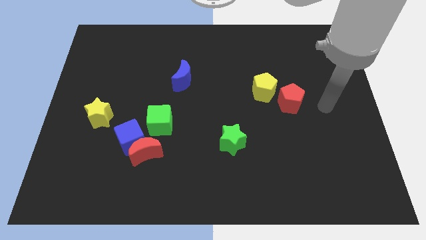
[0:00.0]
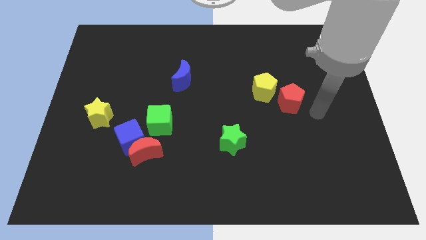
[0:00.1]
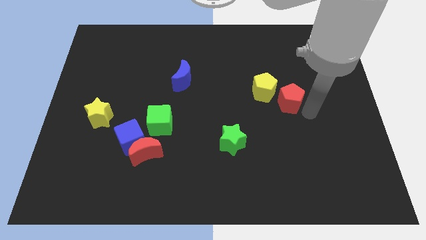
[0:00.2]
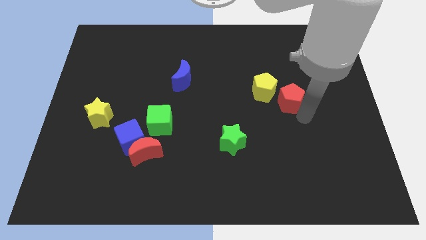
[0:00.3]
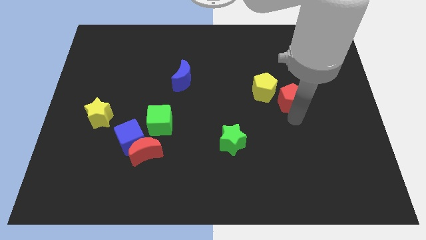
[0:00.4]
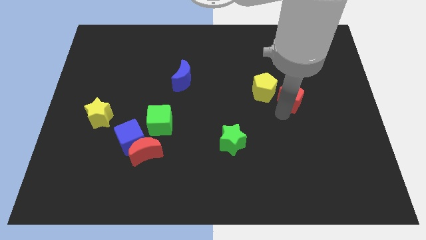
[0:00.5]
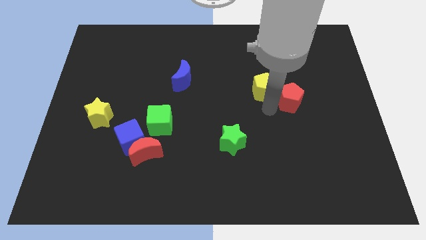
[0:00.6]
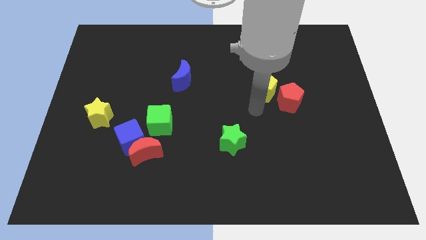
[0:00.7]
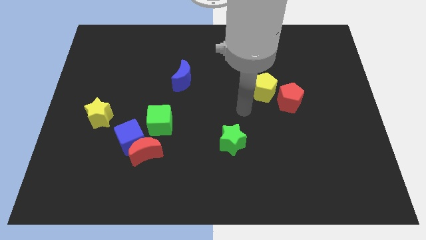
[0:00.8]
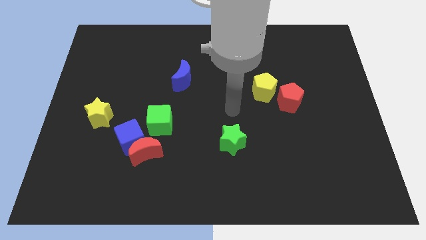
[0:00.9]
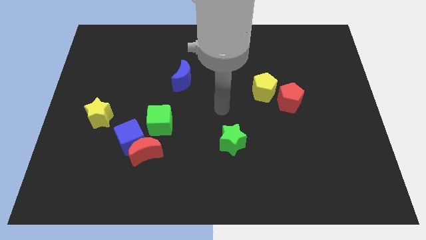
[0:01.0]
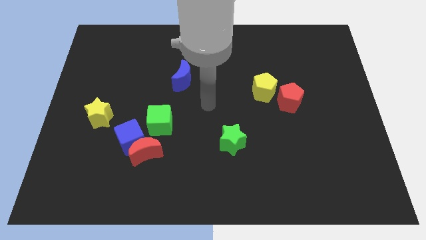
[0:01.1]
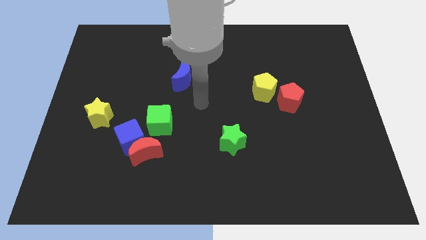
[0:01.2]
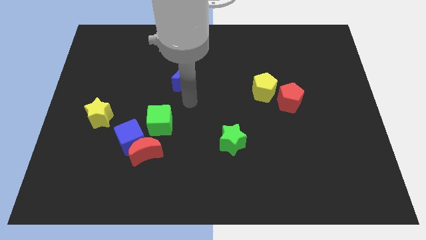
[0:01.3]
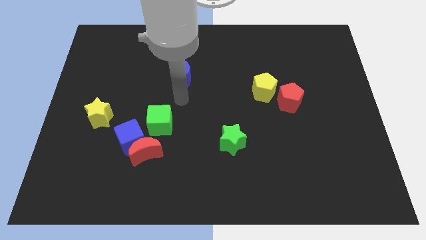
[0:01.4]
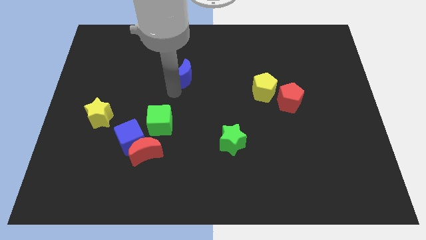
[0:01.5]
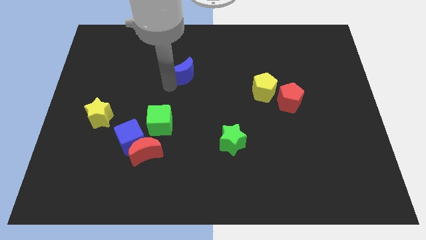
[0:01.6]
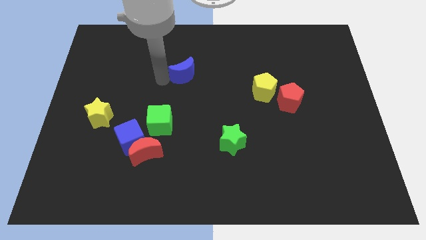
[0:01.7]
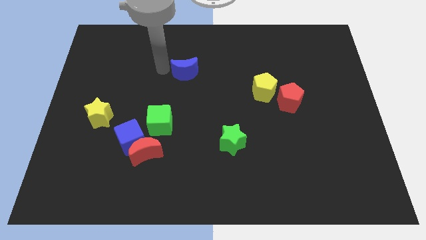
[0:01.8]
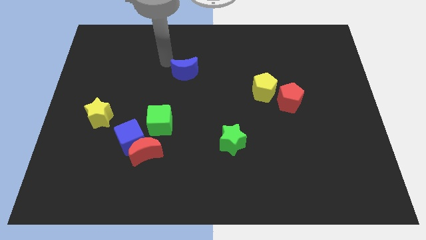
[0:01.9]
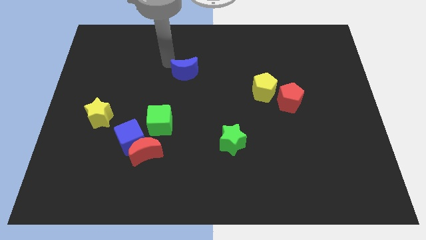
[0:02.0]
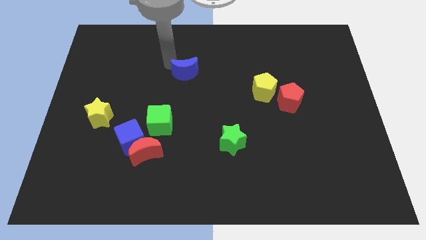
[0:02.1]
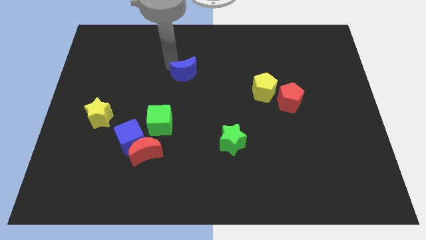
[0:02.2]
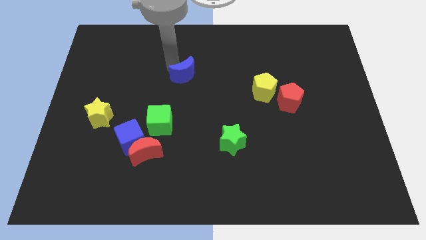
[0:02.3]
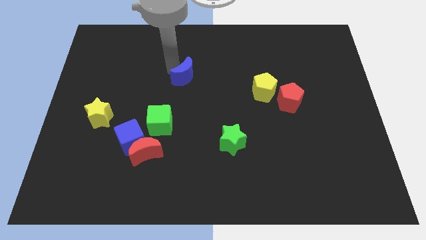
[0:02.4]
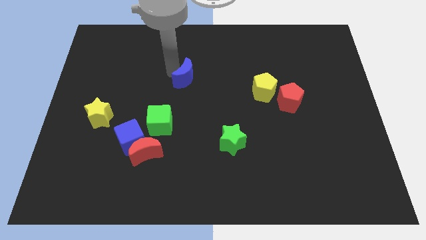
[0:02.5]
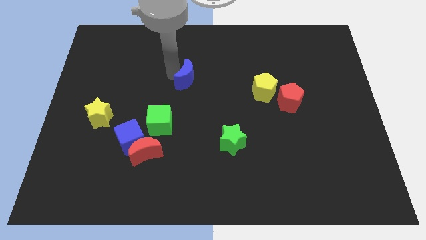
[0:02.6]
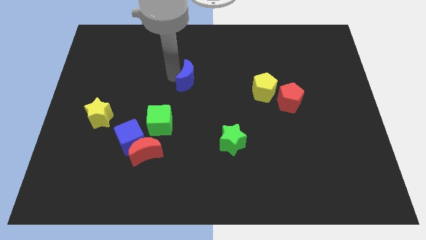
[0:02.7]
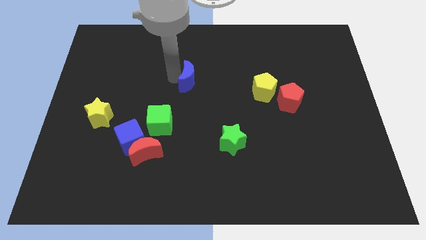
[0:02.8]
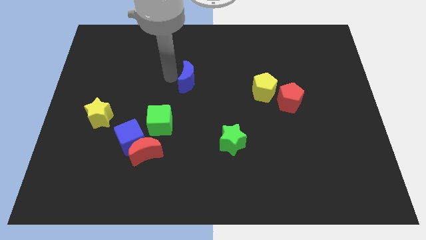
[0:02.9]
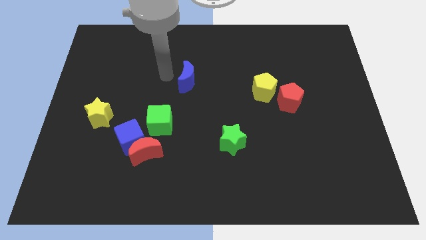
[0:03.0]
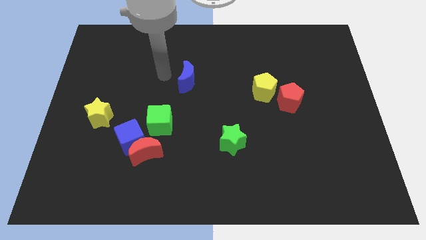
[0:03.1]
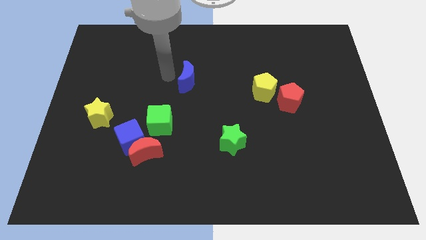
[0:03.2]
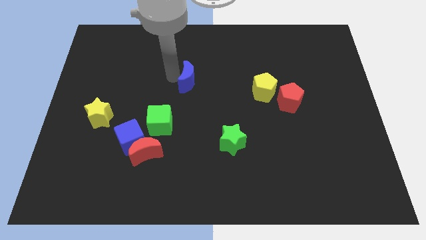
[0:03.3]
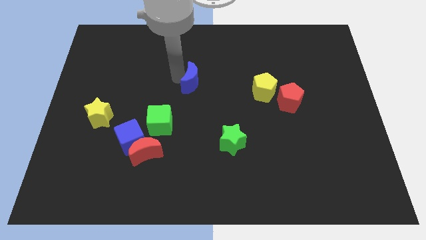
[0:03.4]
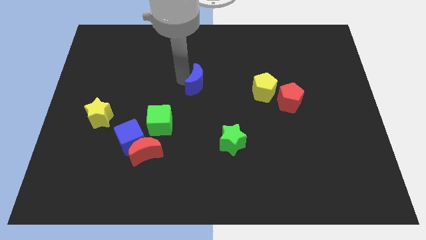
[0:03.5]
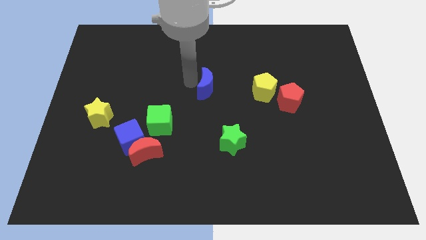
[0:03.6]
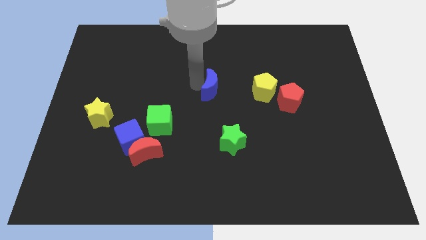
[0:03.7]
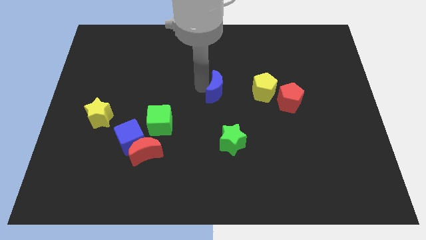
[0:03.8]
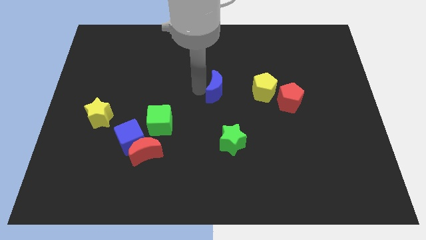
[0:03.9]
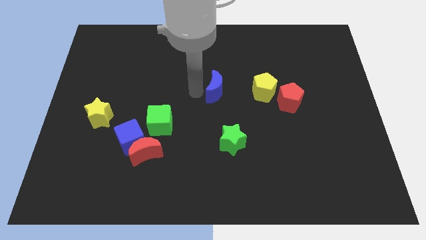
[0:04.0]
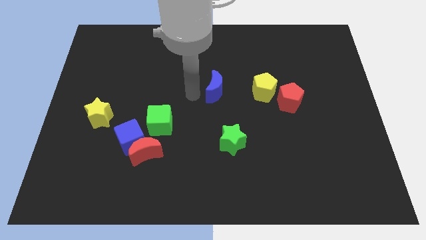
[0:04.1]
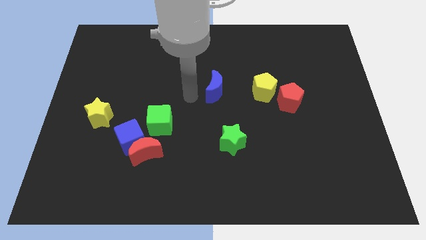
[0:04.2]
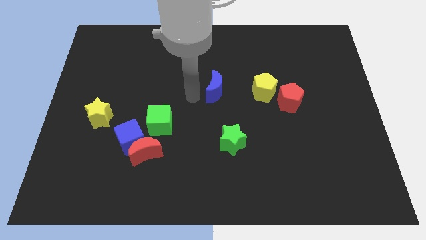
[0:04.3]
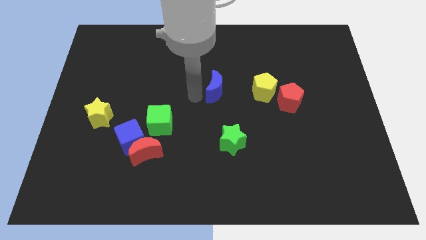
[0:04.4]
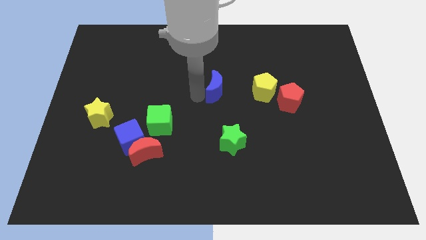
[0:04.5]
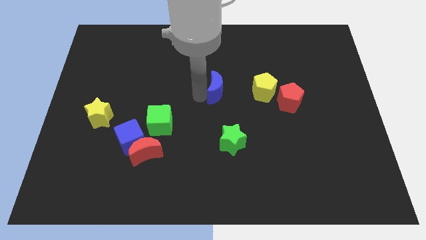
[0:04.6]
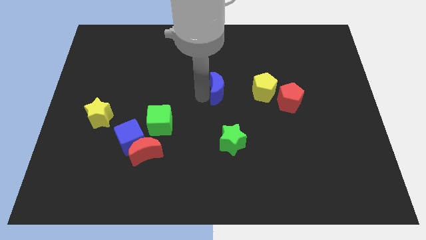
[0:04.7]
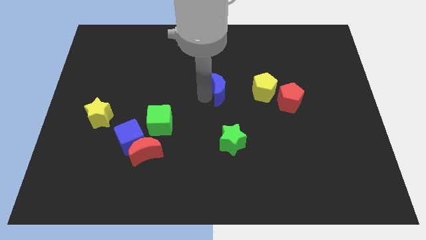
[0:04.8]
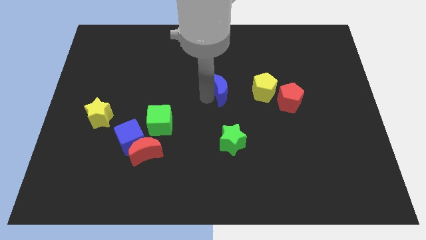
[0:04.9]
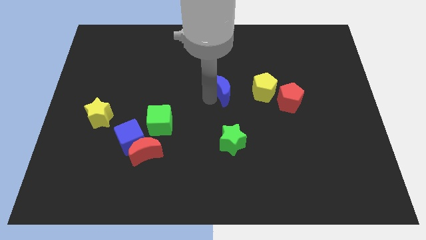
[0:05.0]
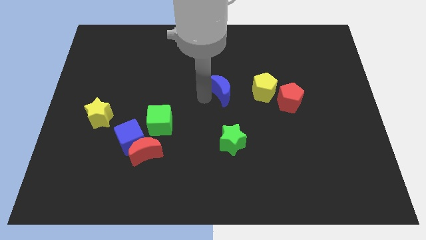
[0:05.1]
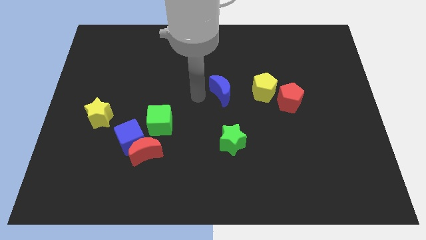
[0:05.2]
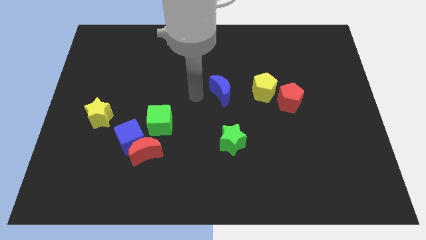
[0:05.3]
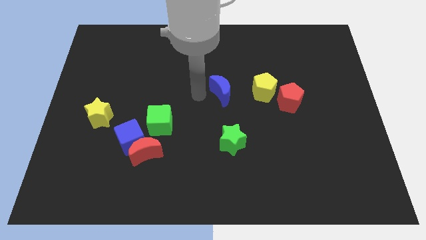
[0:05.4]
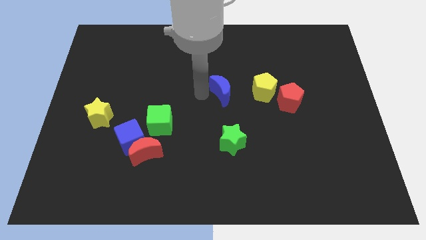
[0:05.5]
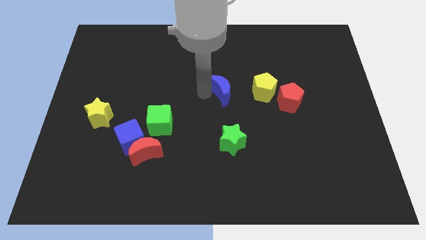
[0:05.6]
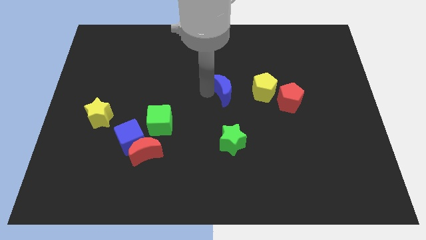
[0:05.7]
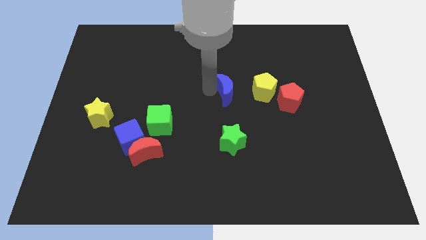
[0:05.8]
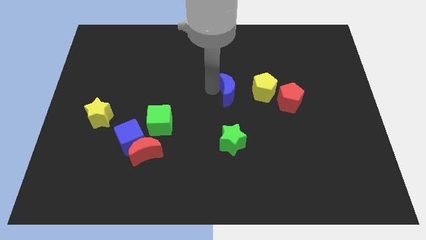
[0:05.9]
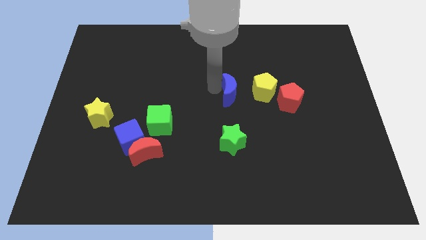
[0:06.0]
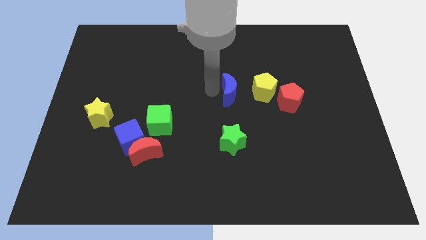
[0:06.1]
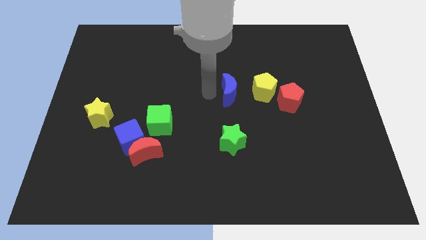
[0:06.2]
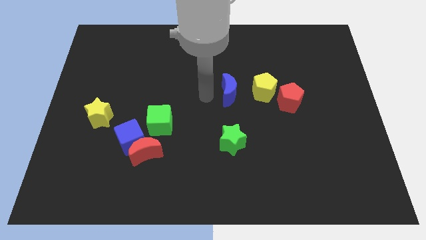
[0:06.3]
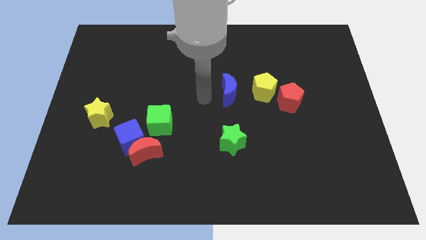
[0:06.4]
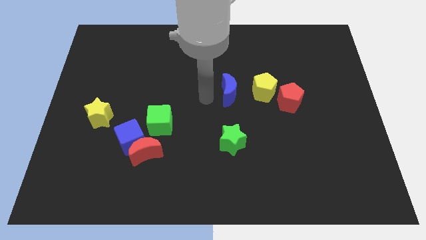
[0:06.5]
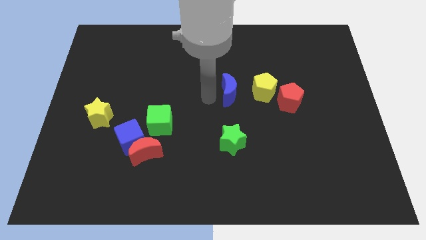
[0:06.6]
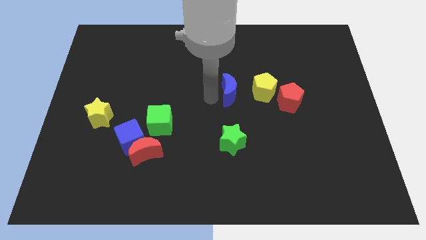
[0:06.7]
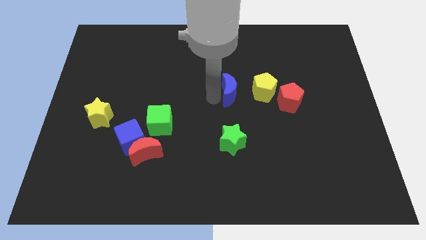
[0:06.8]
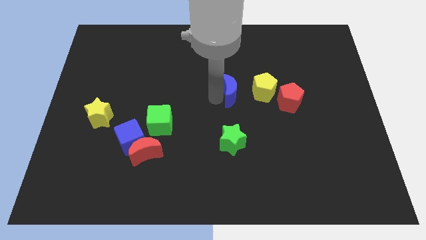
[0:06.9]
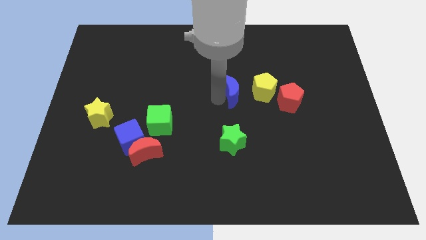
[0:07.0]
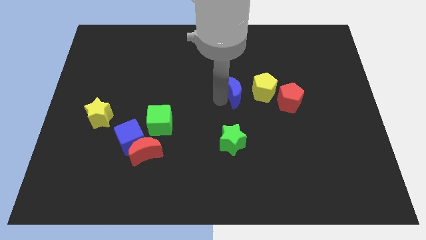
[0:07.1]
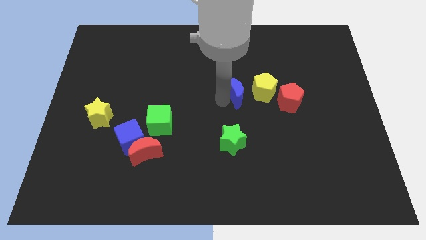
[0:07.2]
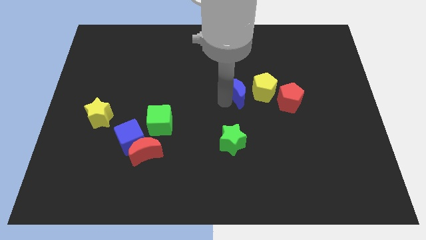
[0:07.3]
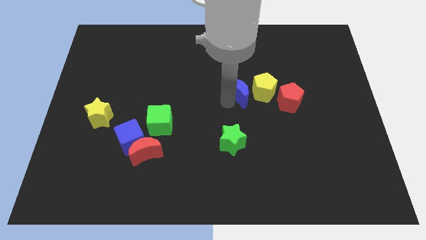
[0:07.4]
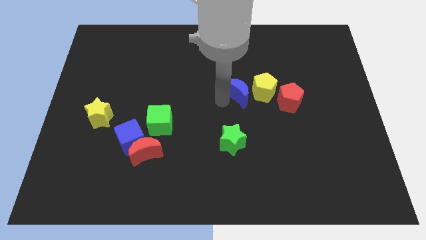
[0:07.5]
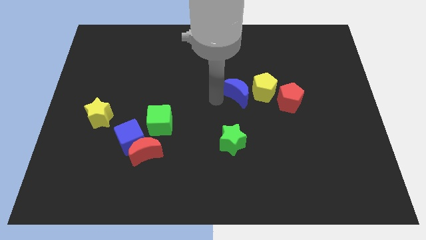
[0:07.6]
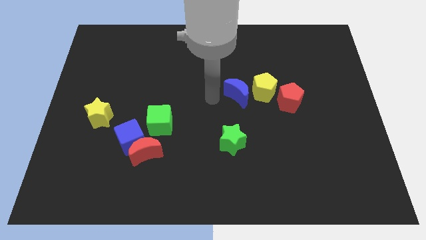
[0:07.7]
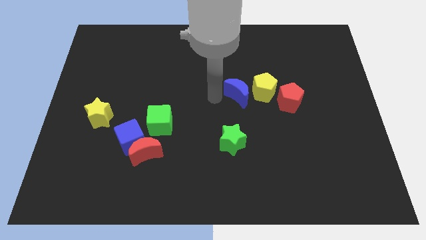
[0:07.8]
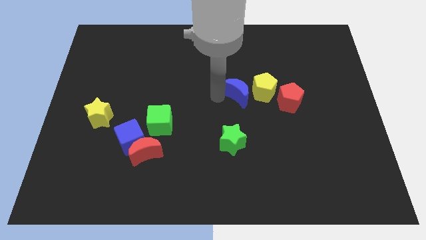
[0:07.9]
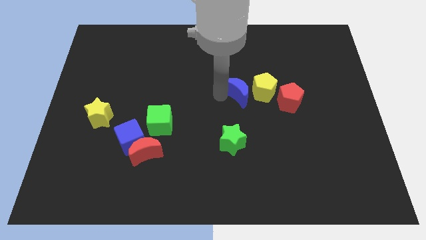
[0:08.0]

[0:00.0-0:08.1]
put the blue moon towards the yellow pentagon
